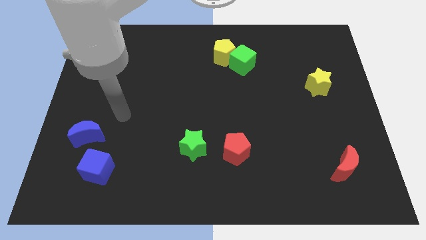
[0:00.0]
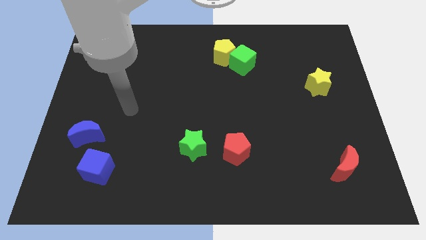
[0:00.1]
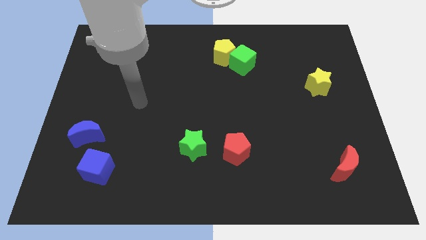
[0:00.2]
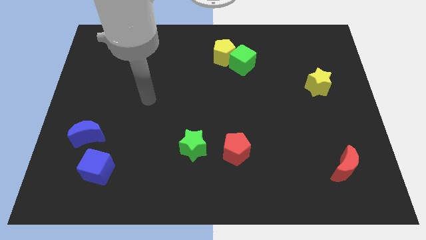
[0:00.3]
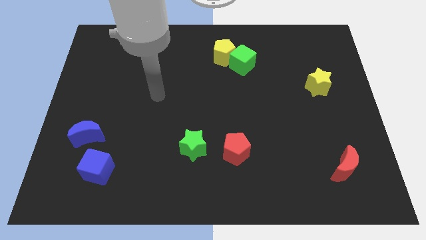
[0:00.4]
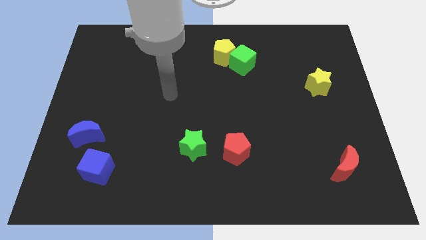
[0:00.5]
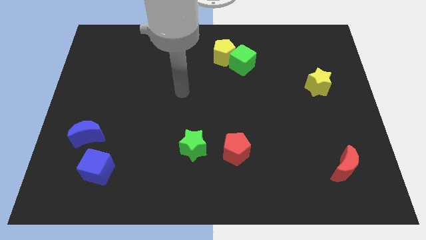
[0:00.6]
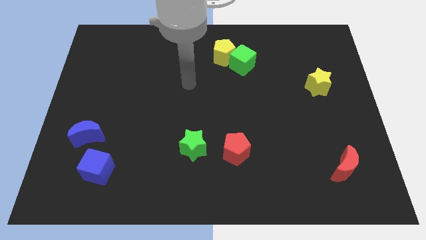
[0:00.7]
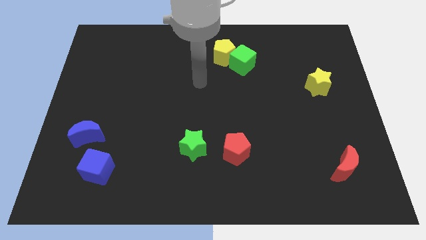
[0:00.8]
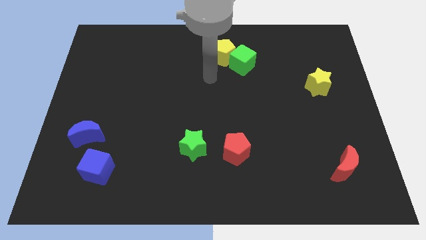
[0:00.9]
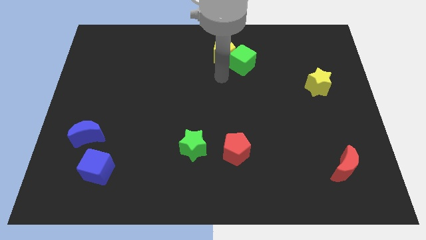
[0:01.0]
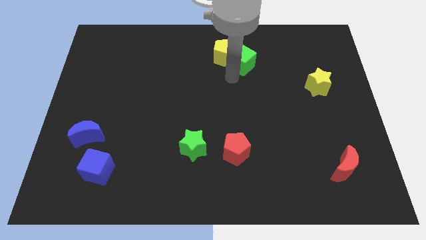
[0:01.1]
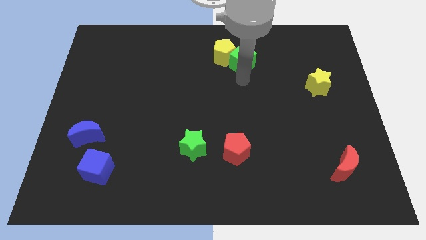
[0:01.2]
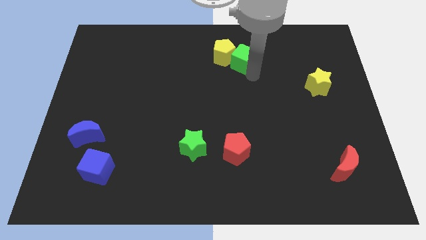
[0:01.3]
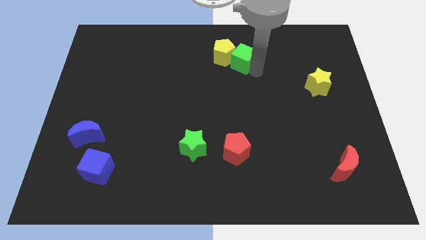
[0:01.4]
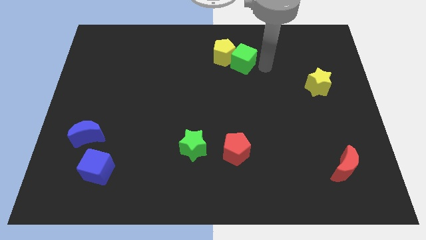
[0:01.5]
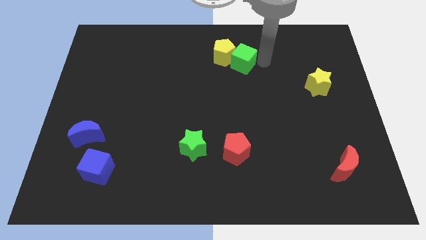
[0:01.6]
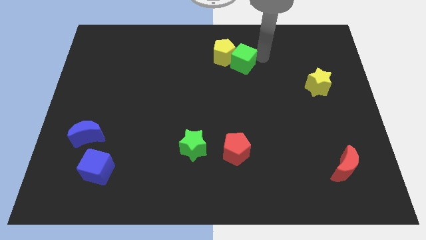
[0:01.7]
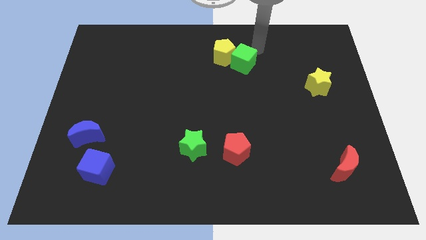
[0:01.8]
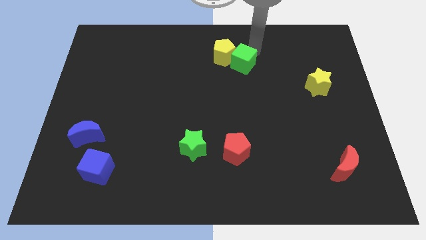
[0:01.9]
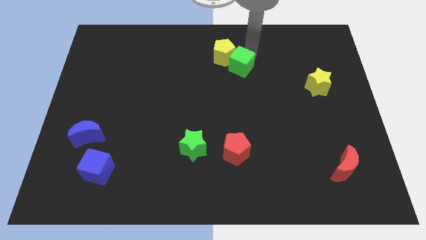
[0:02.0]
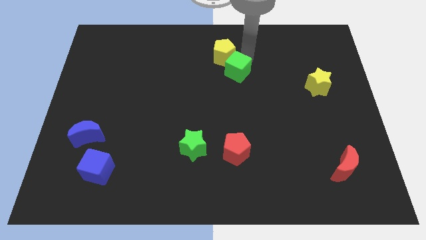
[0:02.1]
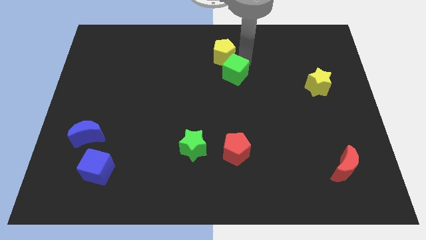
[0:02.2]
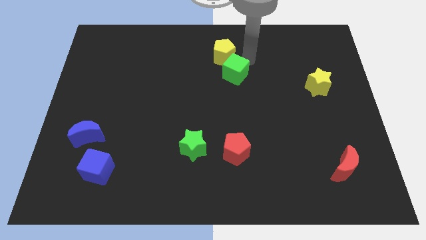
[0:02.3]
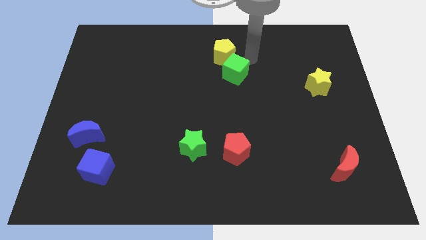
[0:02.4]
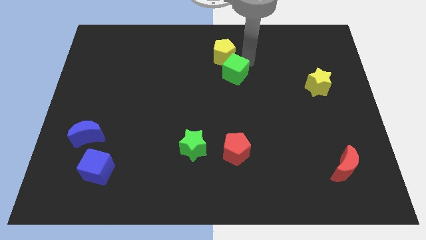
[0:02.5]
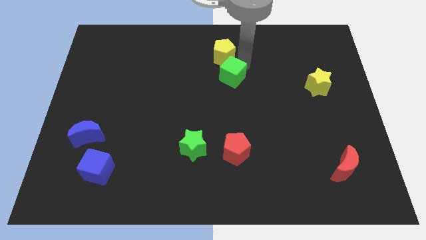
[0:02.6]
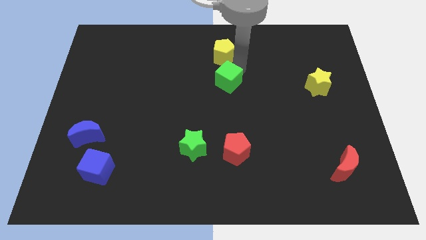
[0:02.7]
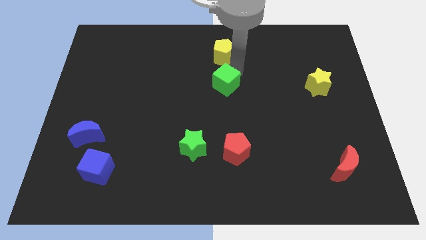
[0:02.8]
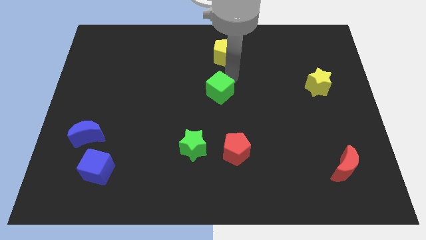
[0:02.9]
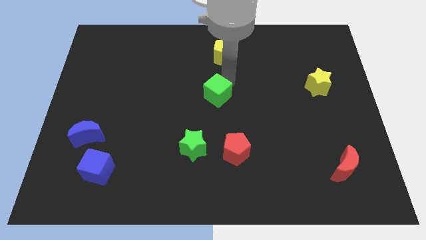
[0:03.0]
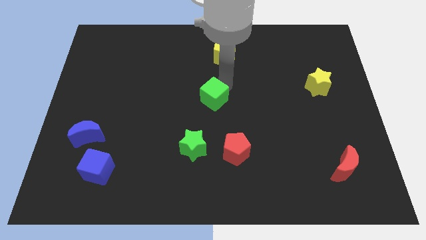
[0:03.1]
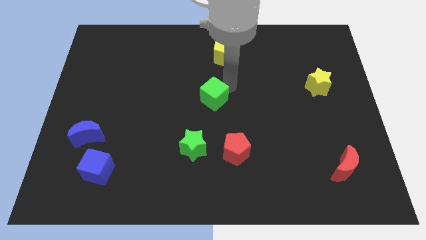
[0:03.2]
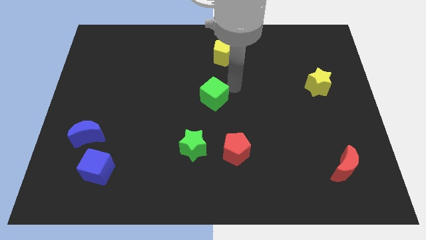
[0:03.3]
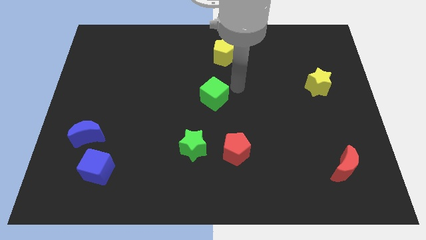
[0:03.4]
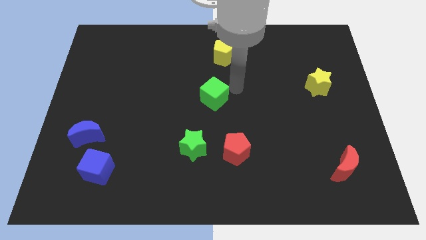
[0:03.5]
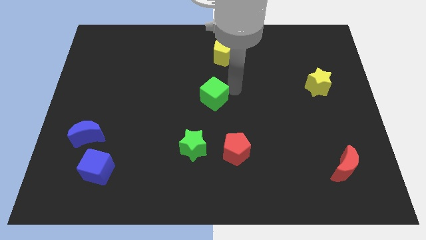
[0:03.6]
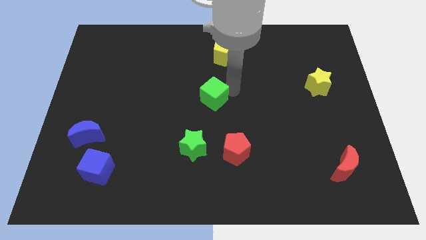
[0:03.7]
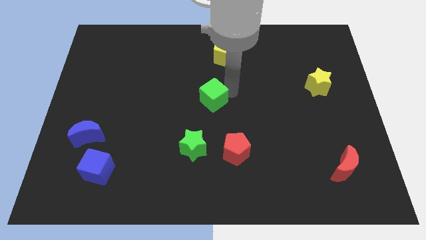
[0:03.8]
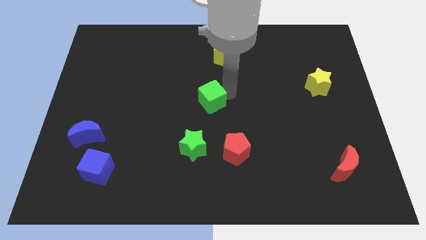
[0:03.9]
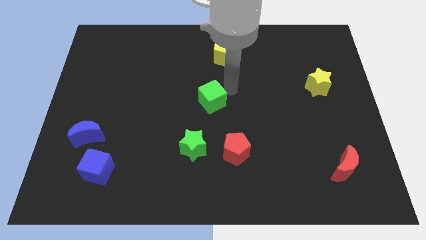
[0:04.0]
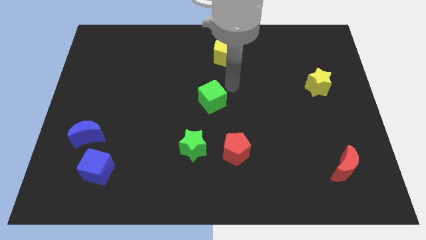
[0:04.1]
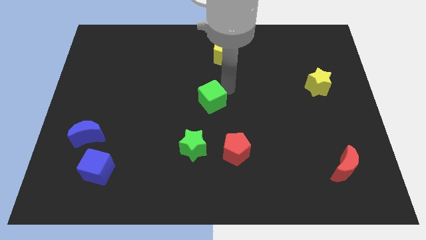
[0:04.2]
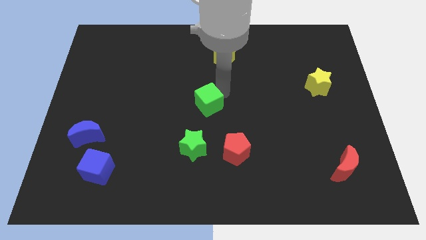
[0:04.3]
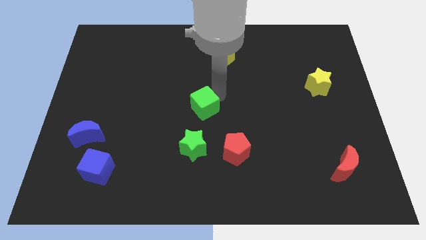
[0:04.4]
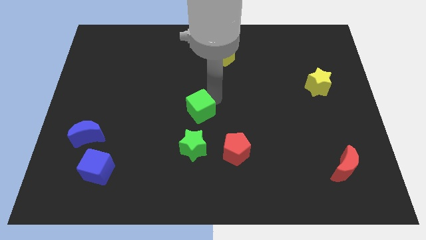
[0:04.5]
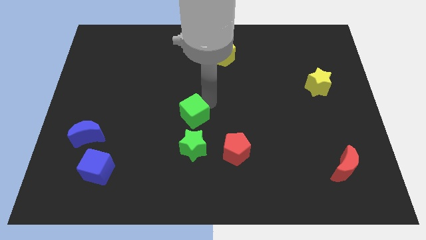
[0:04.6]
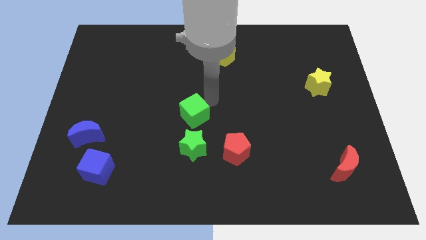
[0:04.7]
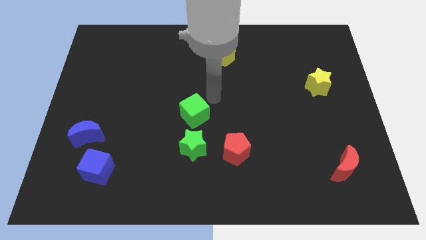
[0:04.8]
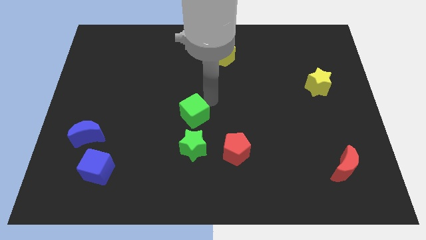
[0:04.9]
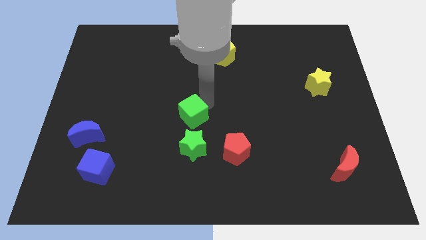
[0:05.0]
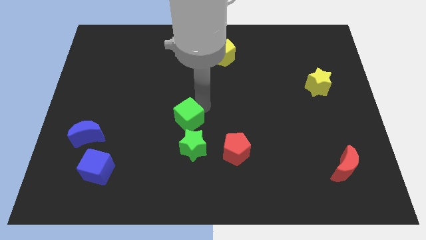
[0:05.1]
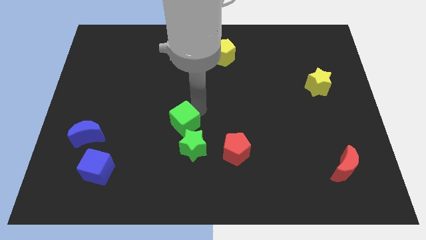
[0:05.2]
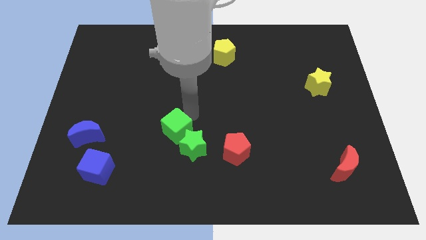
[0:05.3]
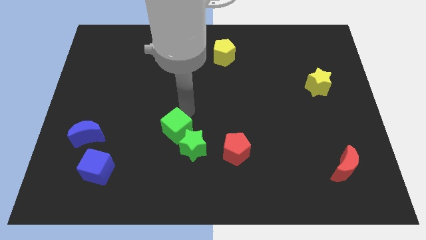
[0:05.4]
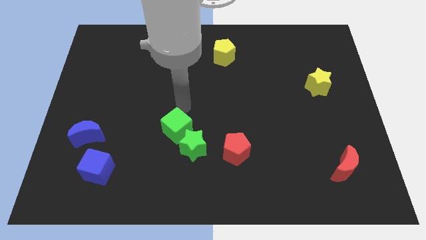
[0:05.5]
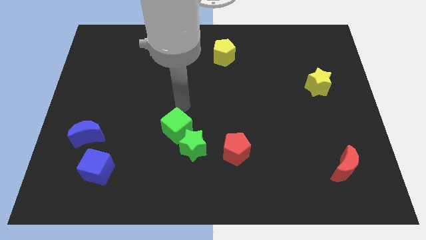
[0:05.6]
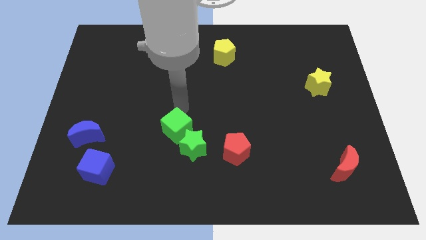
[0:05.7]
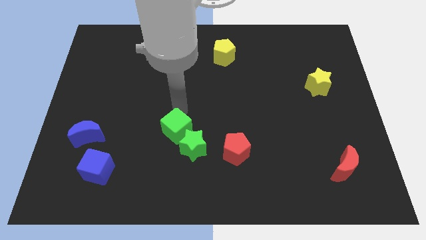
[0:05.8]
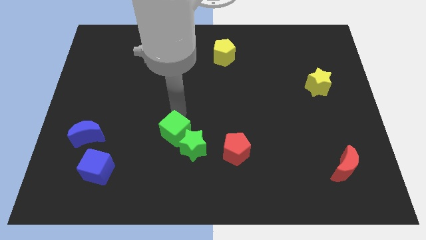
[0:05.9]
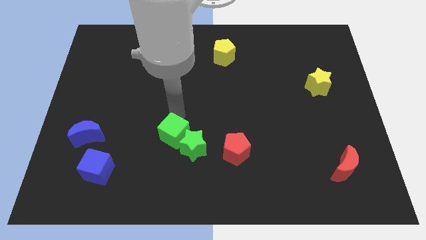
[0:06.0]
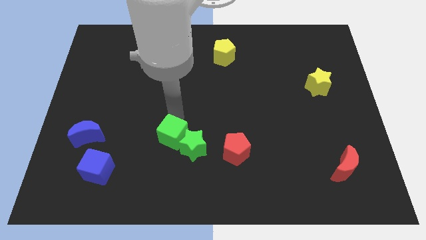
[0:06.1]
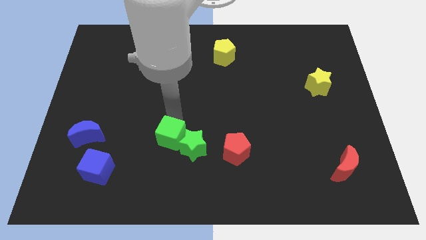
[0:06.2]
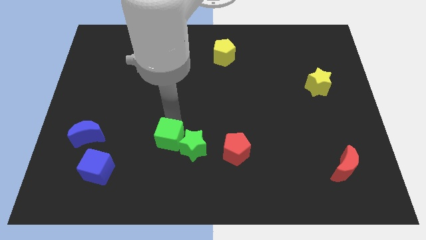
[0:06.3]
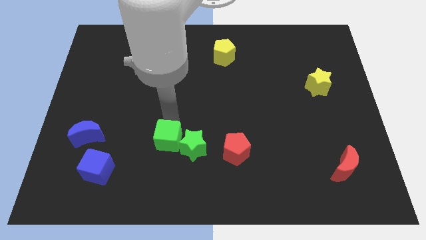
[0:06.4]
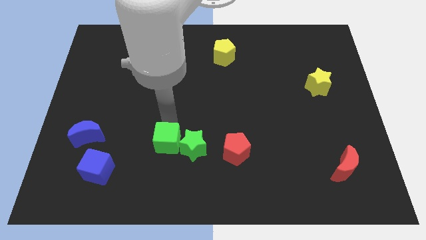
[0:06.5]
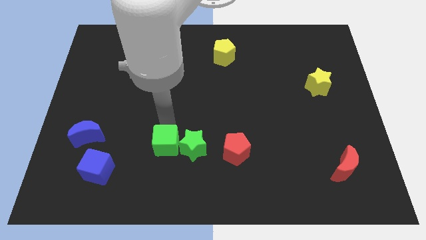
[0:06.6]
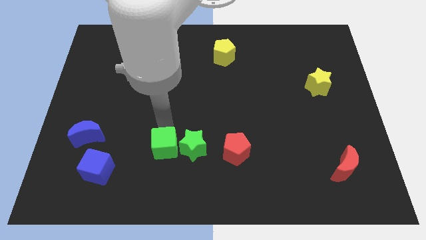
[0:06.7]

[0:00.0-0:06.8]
slide the green cube to the bottom left of the green star

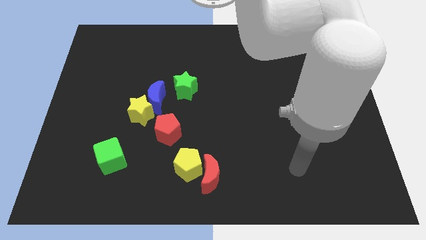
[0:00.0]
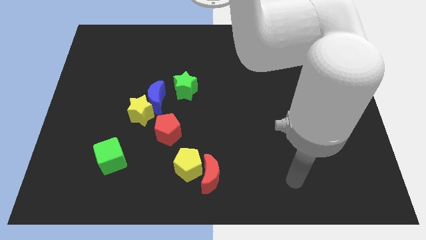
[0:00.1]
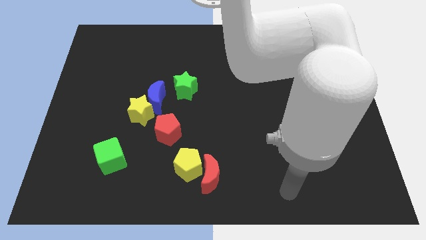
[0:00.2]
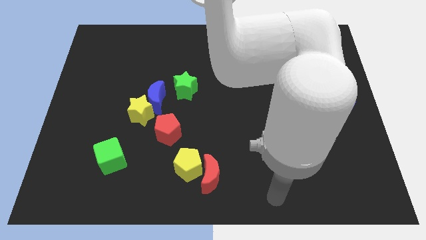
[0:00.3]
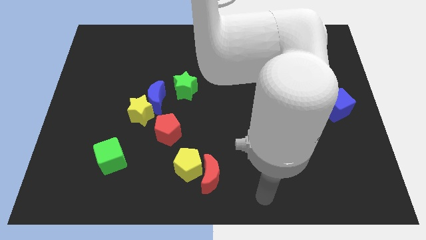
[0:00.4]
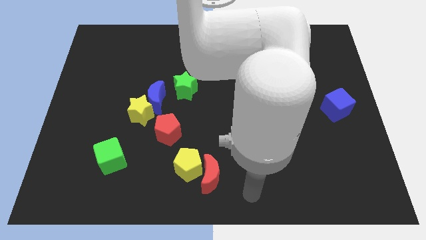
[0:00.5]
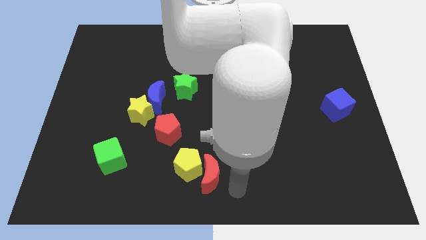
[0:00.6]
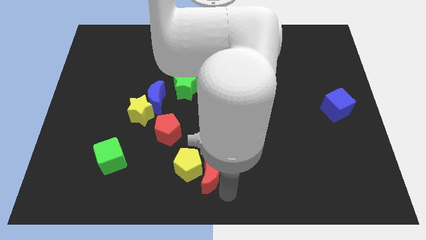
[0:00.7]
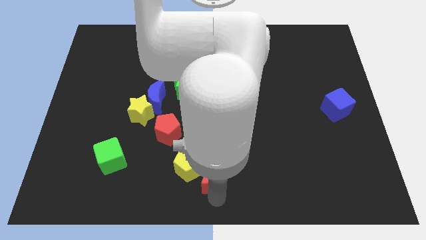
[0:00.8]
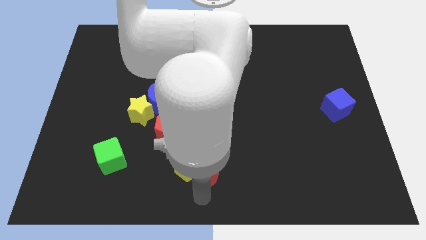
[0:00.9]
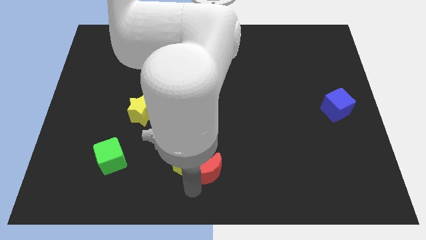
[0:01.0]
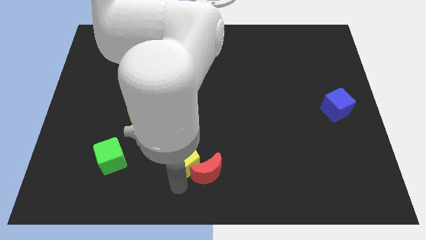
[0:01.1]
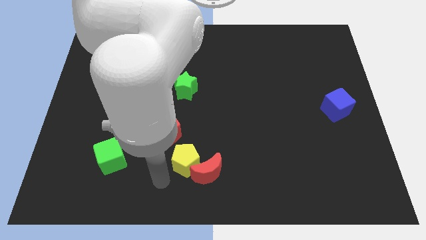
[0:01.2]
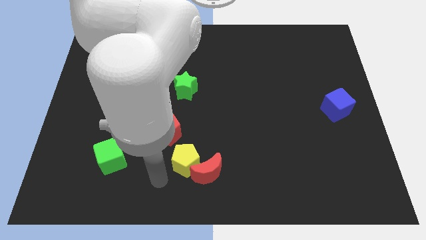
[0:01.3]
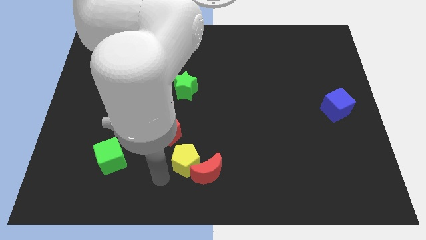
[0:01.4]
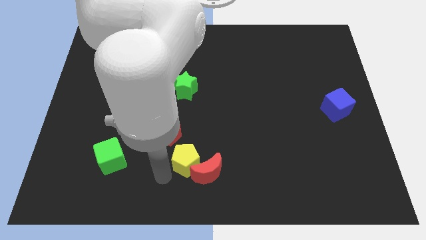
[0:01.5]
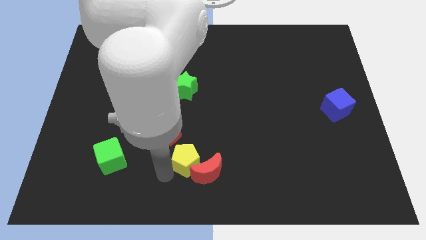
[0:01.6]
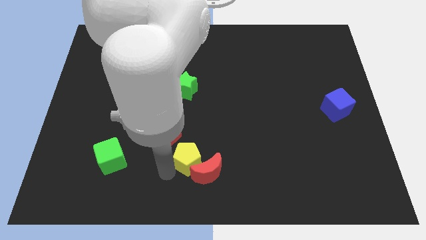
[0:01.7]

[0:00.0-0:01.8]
put the yellow pentagon to the top of the red moon
